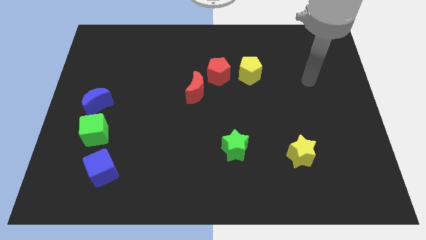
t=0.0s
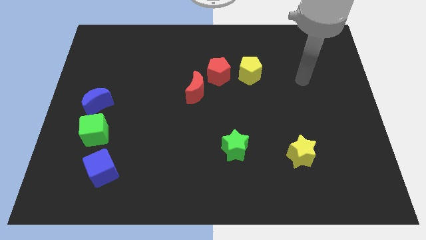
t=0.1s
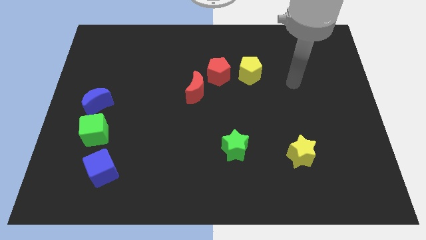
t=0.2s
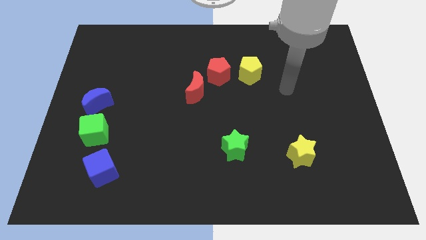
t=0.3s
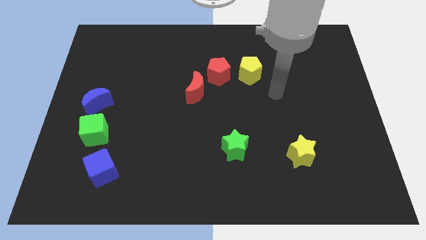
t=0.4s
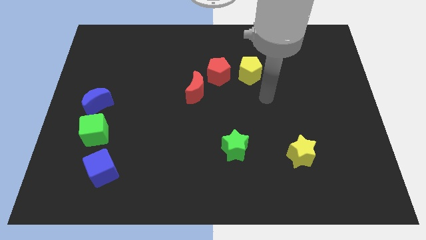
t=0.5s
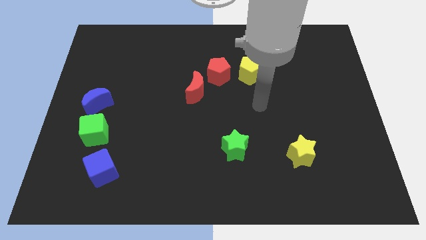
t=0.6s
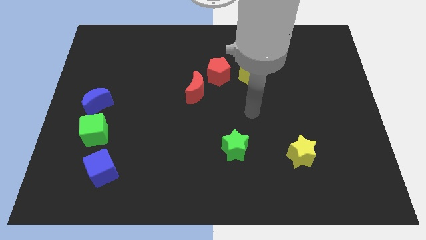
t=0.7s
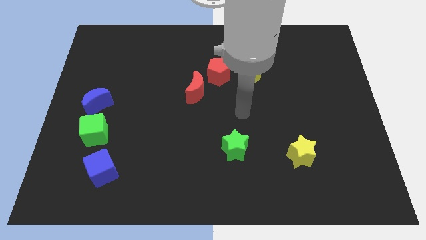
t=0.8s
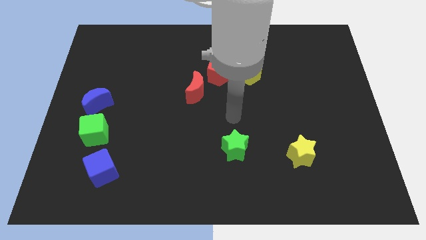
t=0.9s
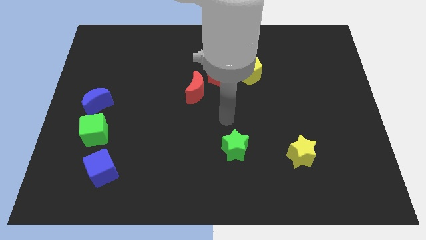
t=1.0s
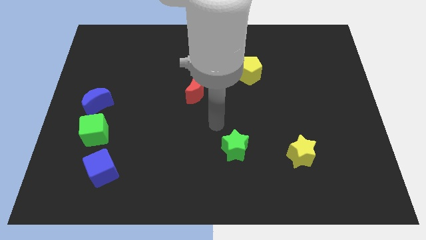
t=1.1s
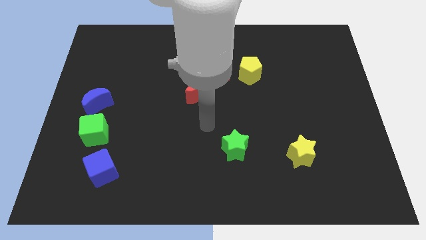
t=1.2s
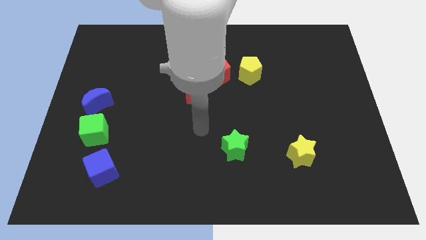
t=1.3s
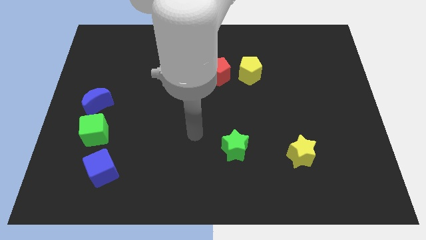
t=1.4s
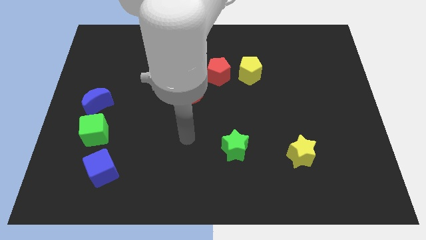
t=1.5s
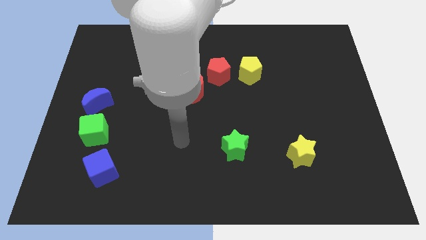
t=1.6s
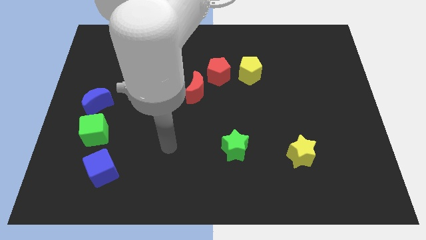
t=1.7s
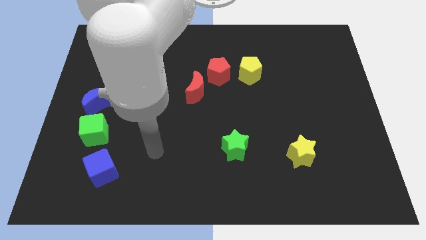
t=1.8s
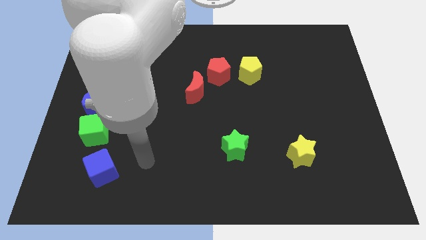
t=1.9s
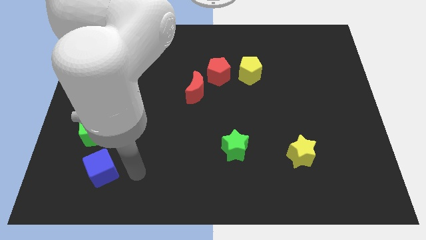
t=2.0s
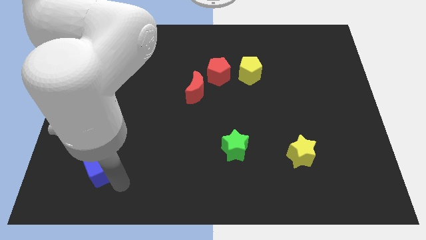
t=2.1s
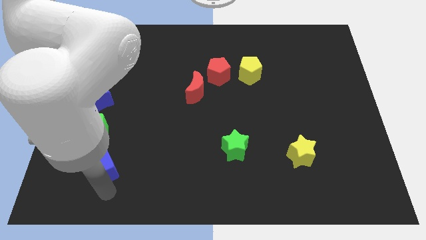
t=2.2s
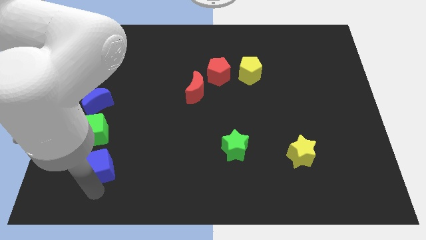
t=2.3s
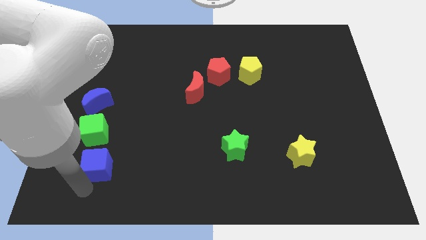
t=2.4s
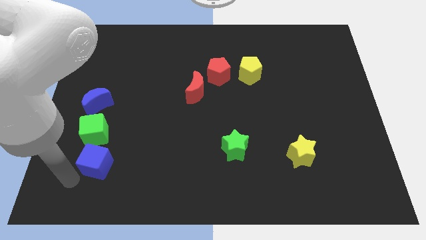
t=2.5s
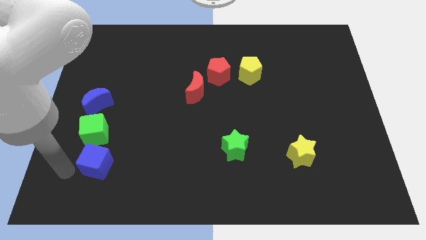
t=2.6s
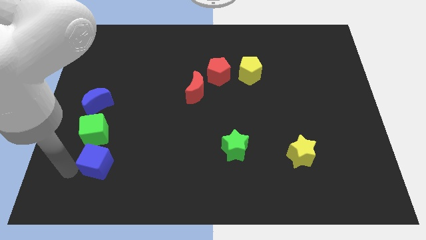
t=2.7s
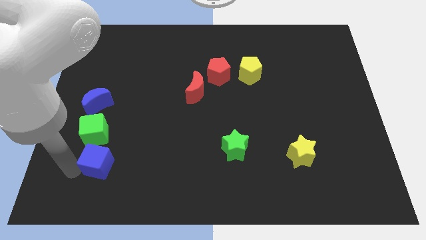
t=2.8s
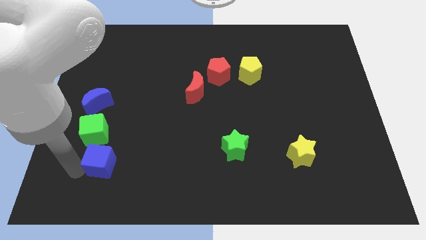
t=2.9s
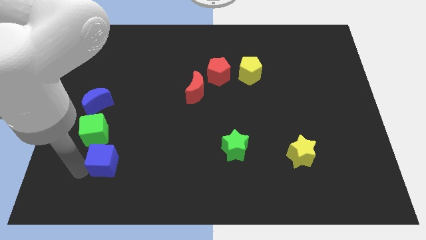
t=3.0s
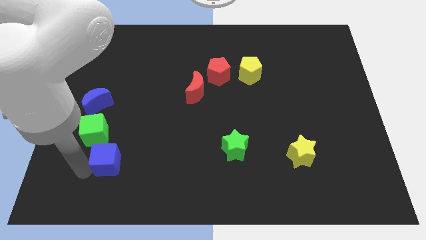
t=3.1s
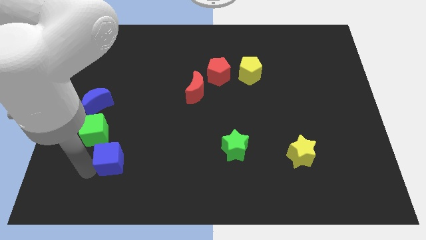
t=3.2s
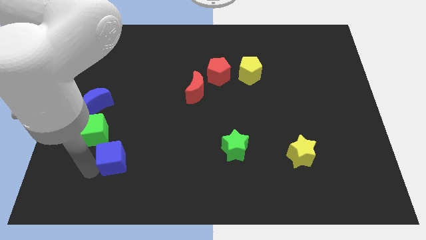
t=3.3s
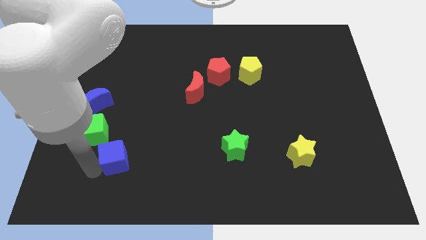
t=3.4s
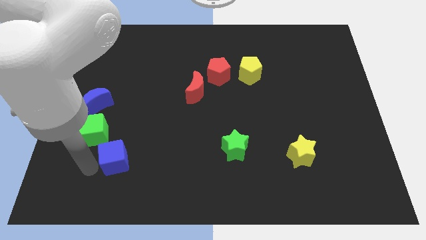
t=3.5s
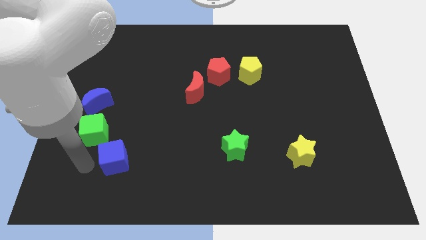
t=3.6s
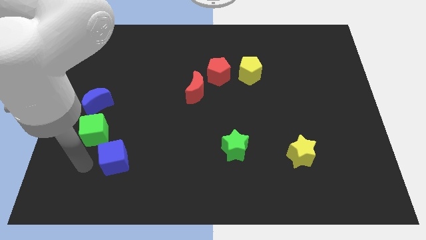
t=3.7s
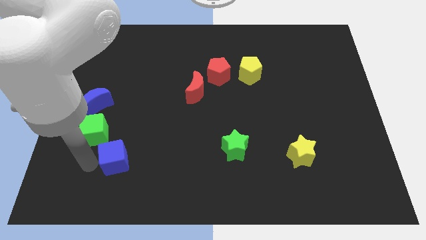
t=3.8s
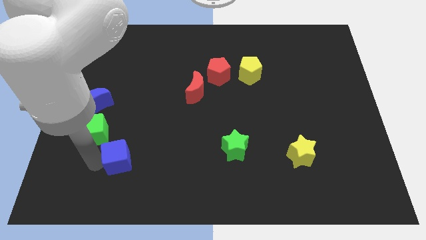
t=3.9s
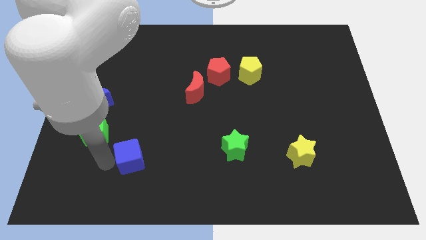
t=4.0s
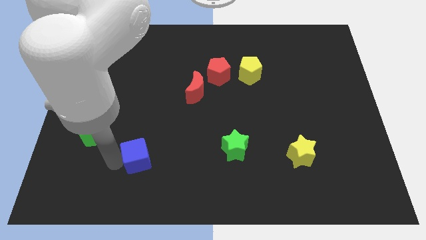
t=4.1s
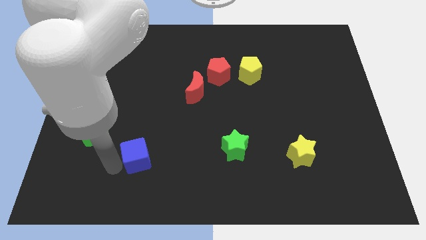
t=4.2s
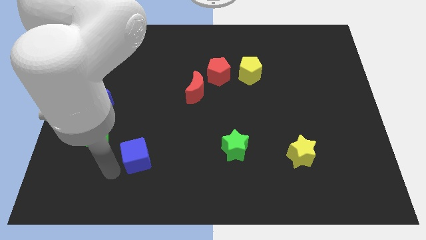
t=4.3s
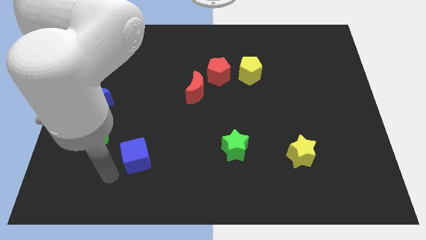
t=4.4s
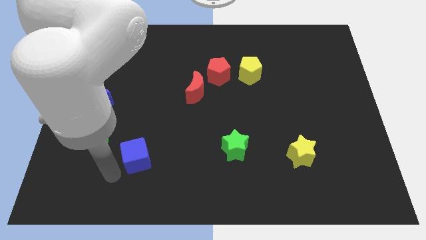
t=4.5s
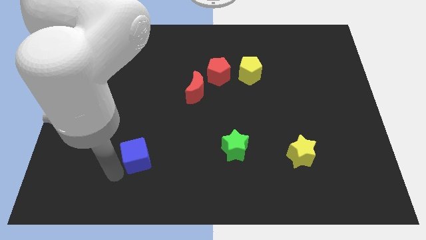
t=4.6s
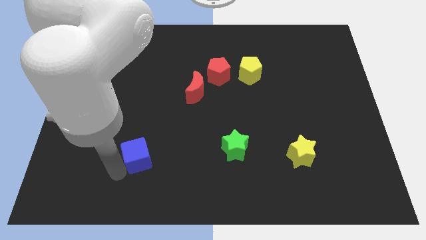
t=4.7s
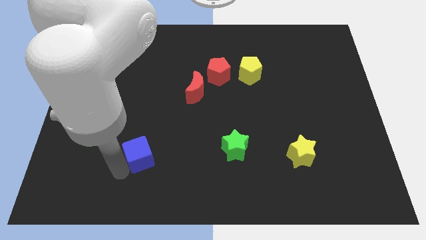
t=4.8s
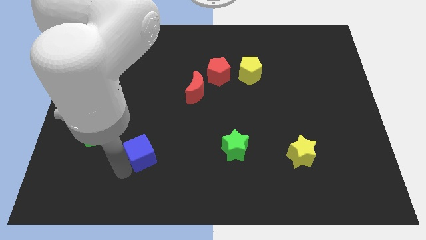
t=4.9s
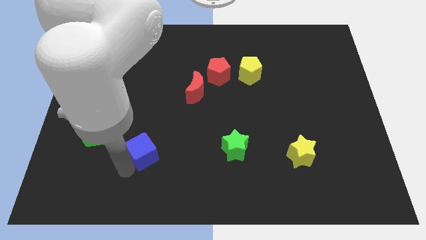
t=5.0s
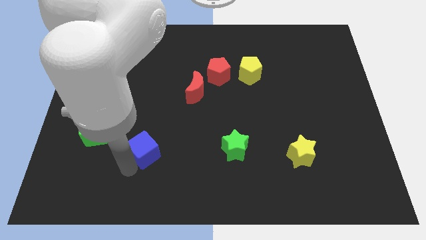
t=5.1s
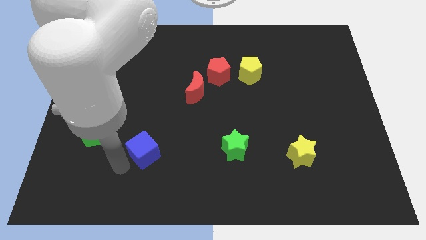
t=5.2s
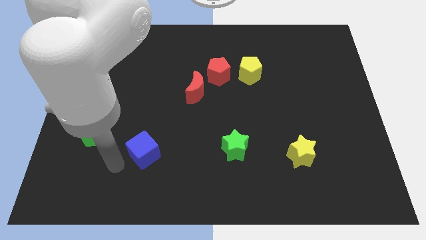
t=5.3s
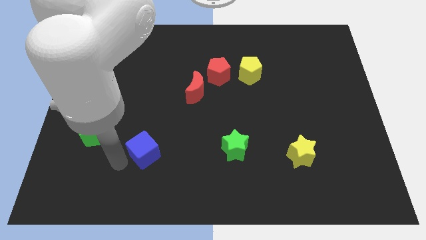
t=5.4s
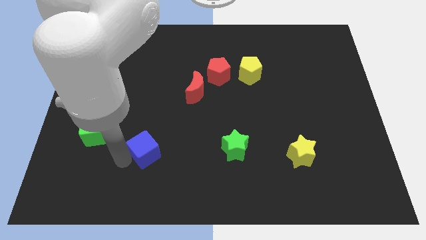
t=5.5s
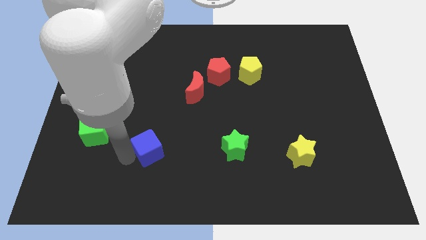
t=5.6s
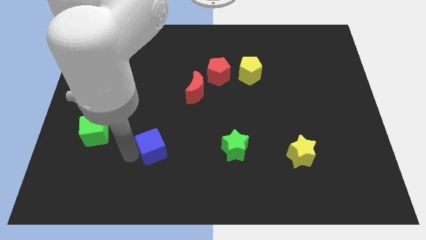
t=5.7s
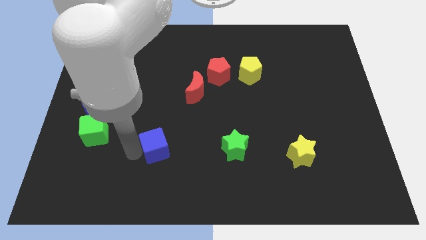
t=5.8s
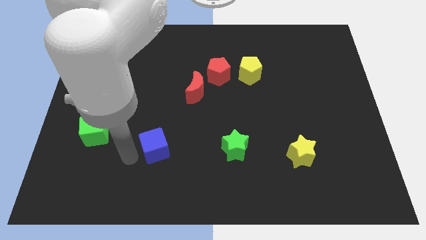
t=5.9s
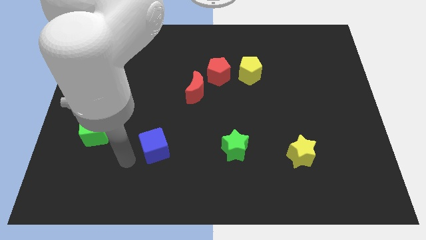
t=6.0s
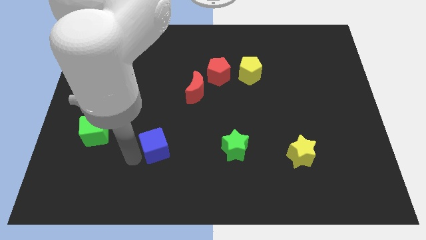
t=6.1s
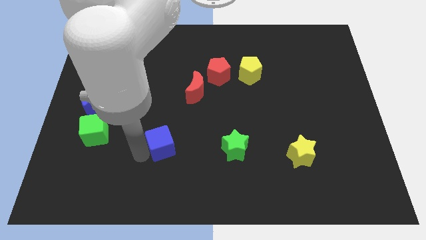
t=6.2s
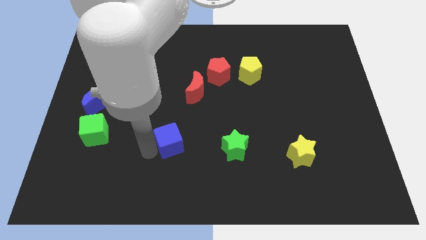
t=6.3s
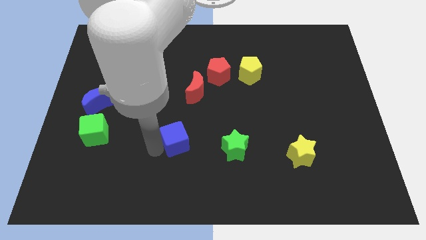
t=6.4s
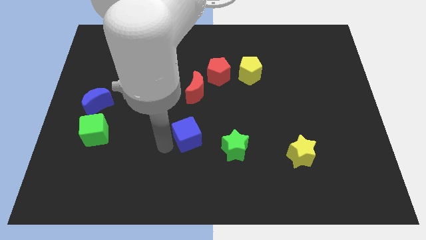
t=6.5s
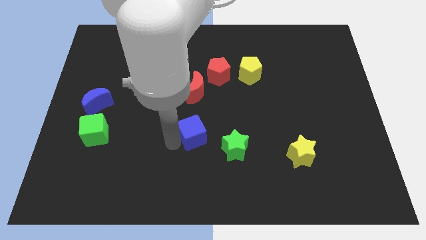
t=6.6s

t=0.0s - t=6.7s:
move the blue cube diagonally up and to the left of the green star

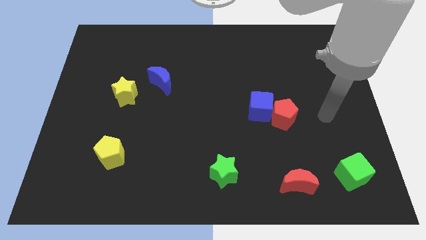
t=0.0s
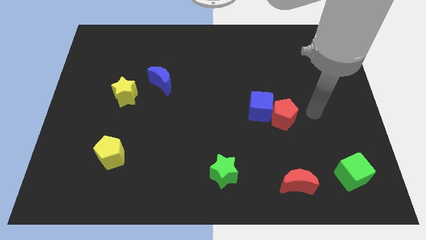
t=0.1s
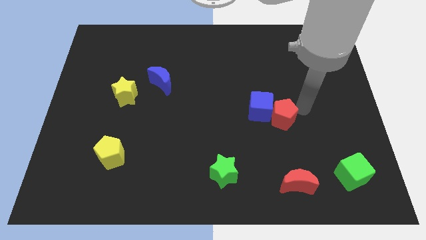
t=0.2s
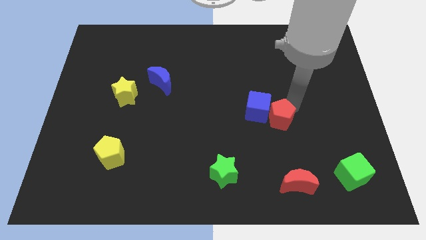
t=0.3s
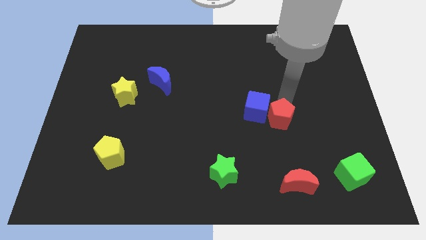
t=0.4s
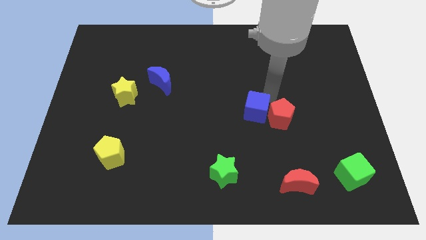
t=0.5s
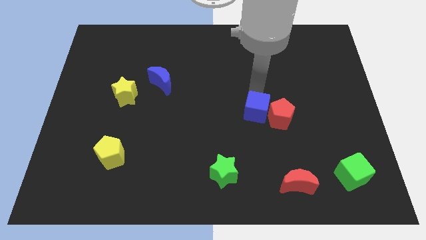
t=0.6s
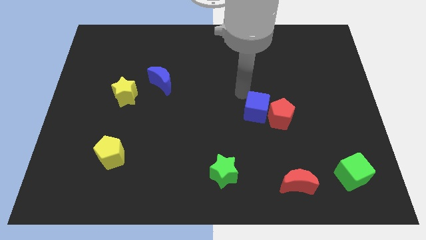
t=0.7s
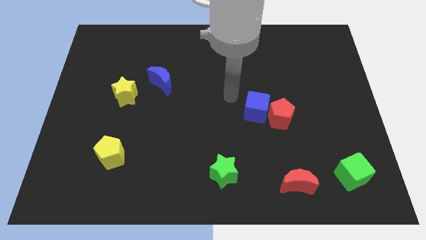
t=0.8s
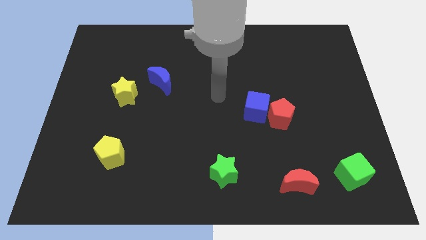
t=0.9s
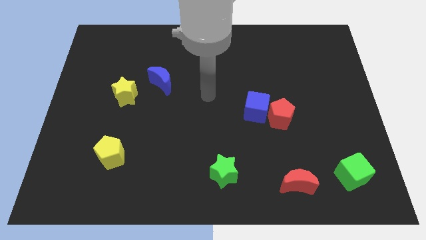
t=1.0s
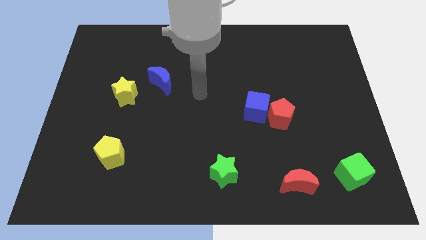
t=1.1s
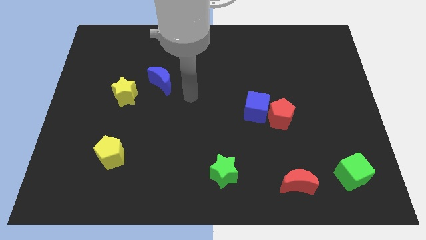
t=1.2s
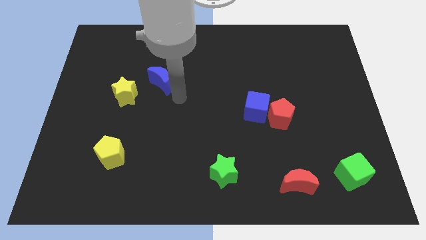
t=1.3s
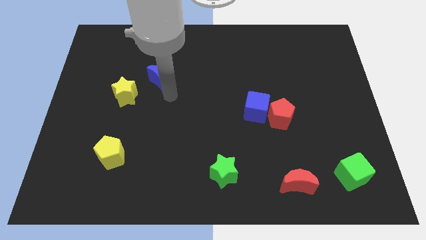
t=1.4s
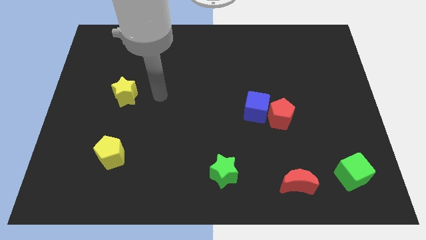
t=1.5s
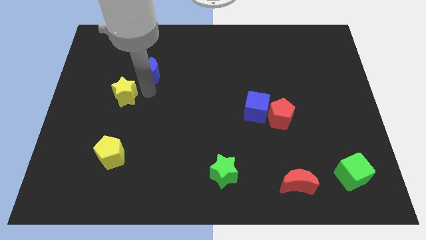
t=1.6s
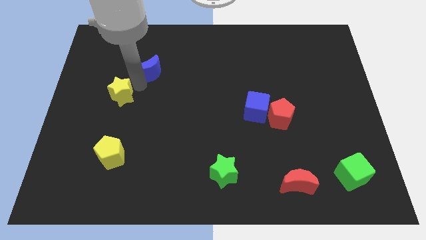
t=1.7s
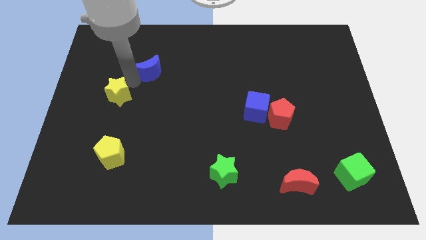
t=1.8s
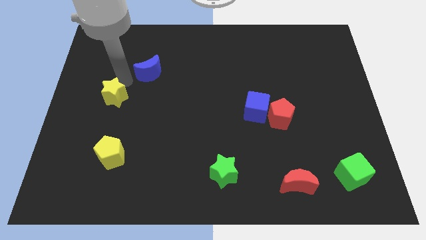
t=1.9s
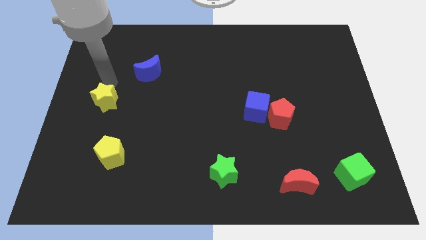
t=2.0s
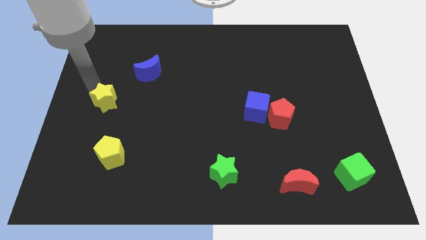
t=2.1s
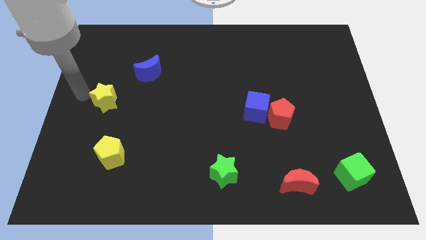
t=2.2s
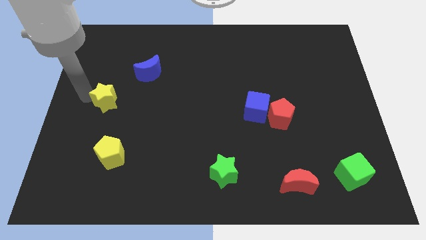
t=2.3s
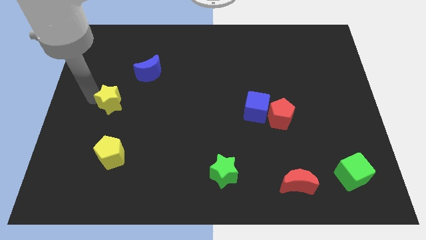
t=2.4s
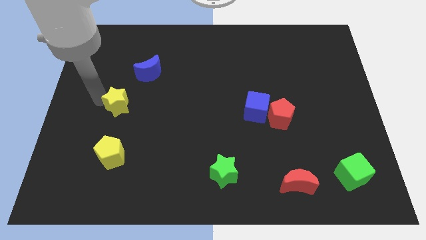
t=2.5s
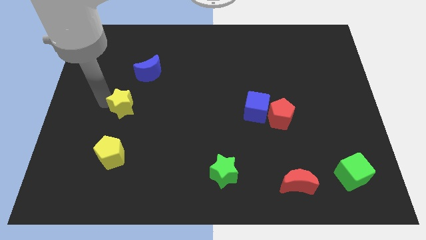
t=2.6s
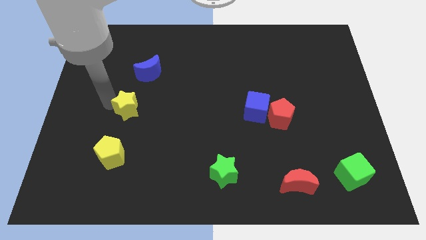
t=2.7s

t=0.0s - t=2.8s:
push the yellow star to the bottom side of the blue moon
